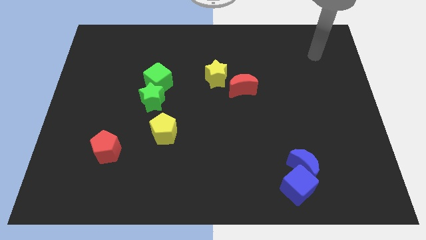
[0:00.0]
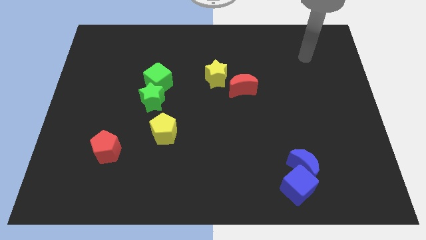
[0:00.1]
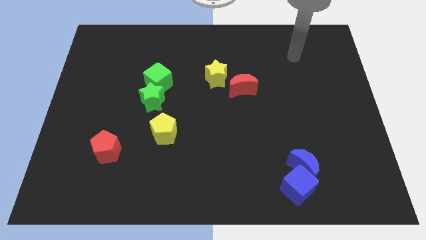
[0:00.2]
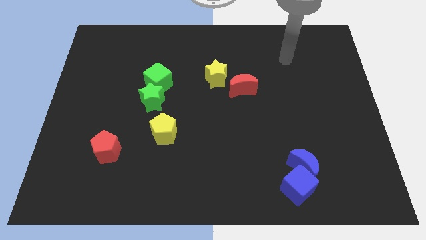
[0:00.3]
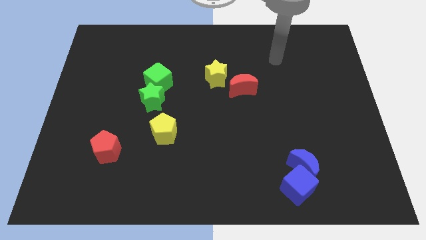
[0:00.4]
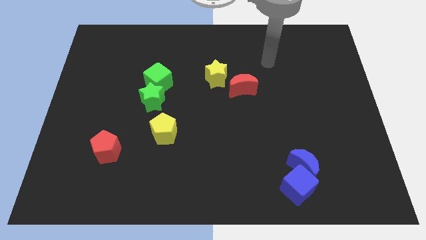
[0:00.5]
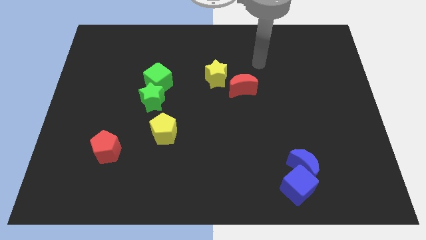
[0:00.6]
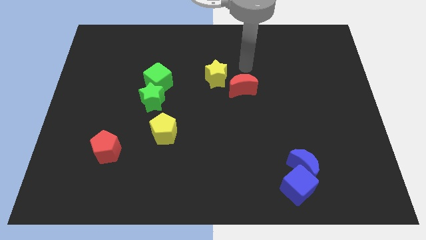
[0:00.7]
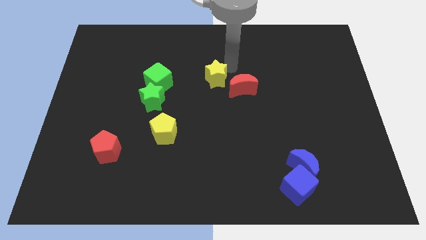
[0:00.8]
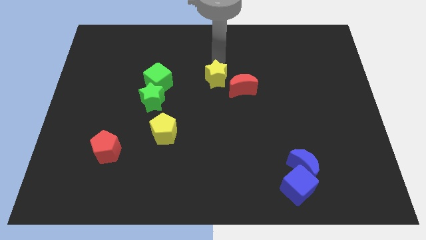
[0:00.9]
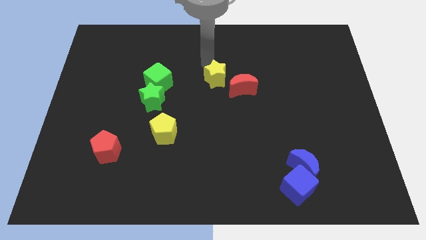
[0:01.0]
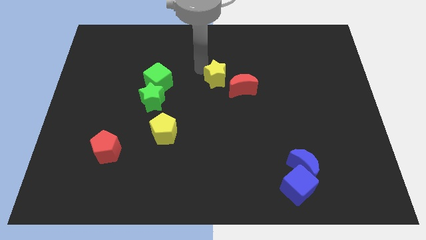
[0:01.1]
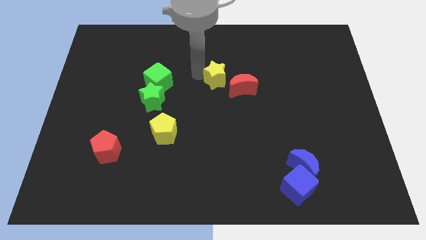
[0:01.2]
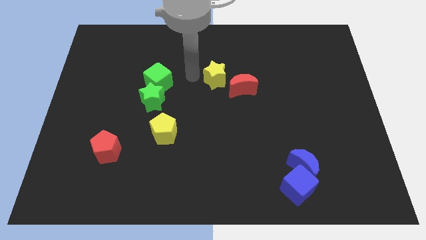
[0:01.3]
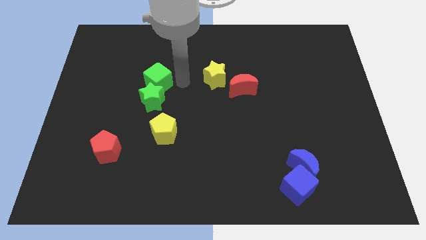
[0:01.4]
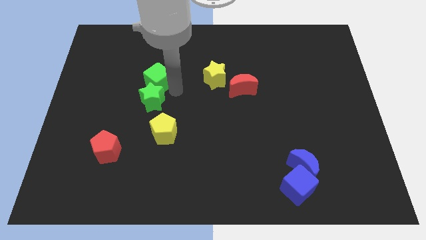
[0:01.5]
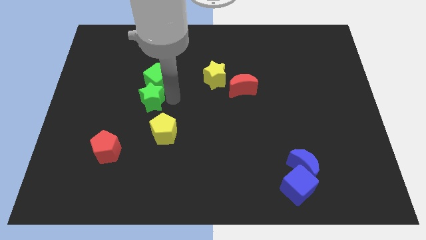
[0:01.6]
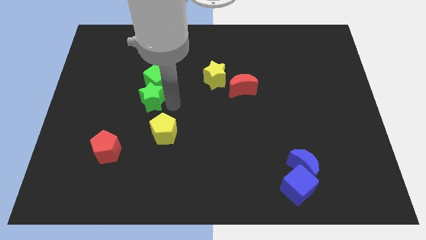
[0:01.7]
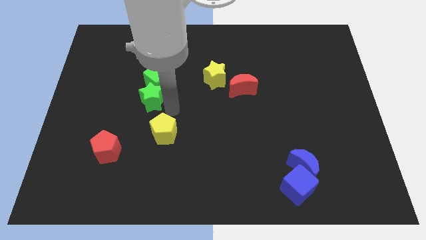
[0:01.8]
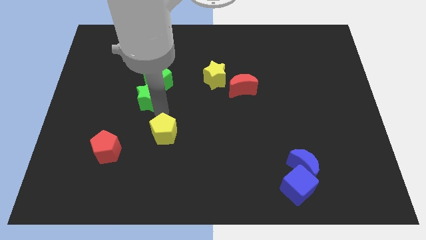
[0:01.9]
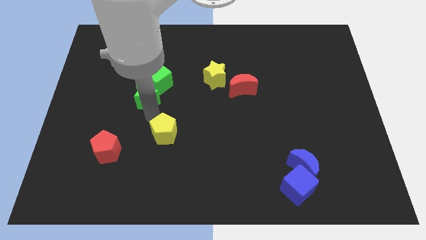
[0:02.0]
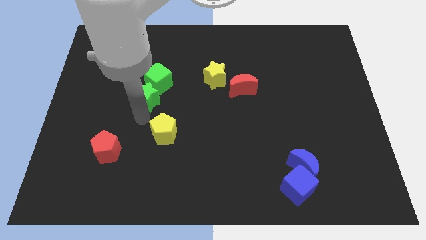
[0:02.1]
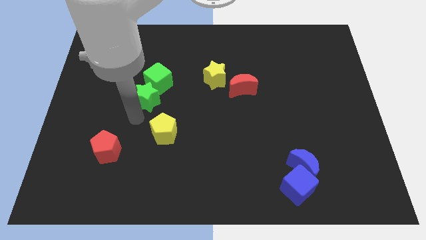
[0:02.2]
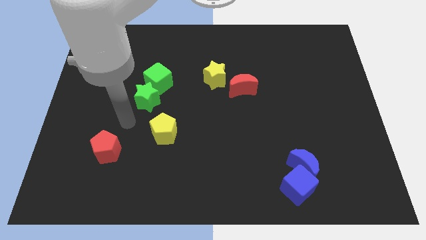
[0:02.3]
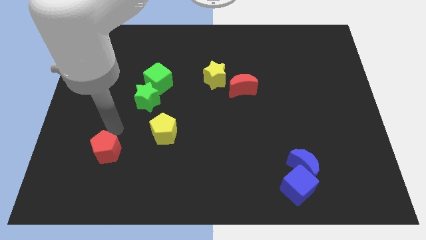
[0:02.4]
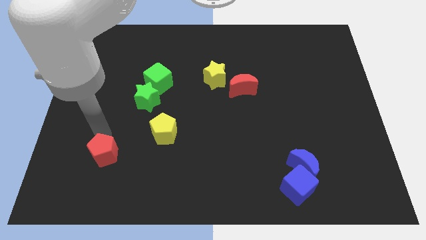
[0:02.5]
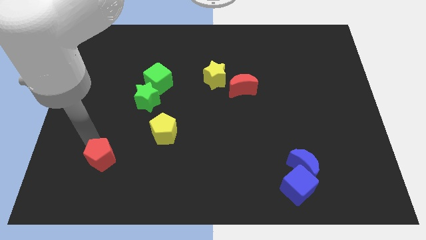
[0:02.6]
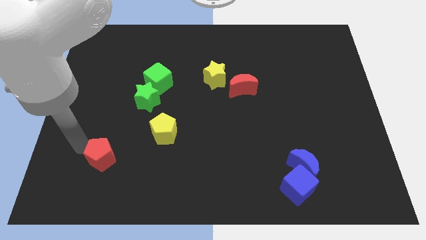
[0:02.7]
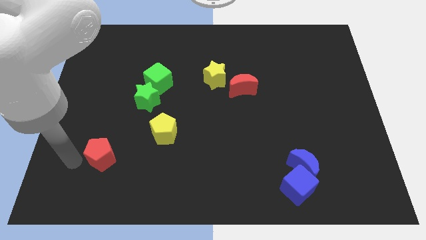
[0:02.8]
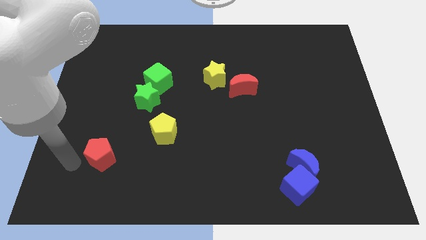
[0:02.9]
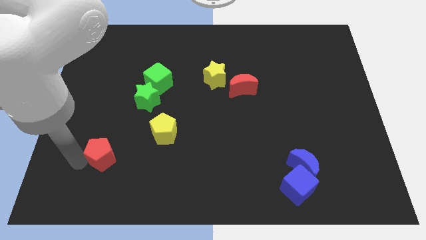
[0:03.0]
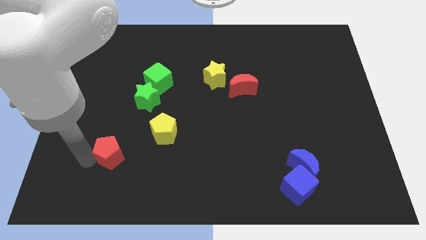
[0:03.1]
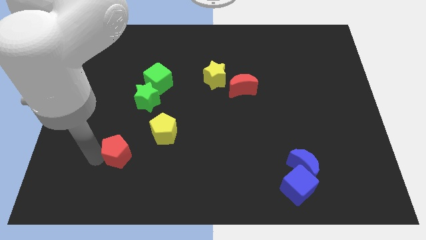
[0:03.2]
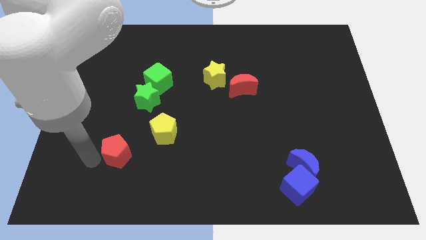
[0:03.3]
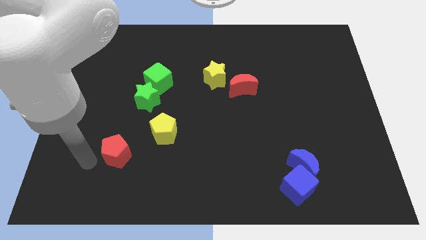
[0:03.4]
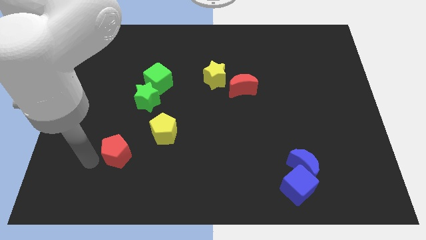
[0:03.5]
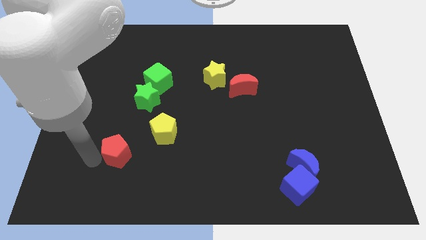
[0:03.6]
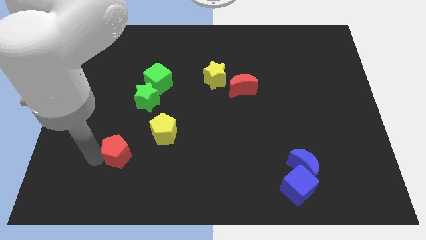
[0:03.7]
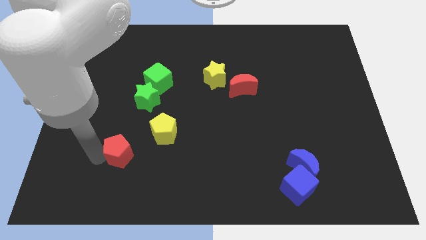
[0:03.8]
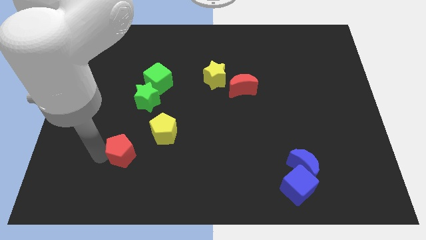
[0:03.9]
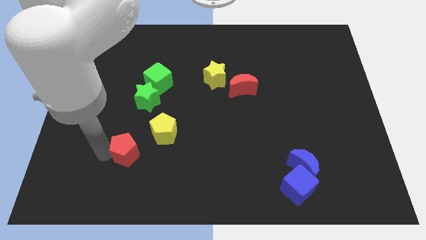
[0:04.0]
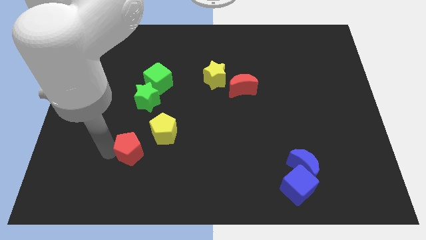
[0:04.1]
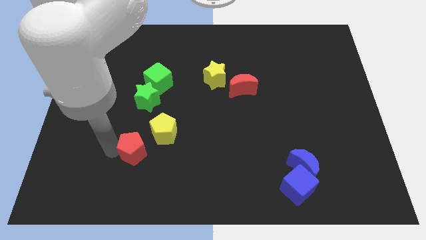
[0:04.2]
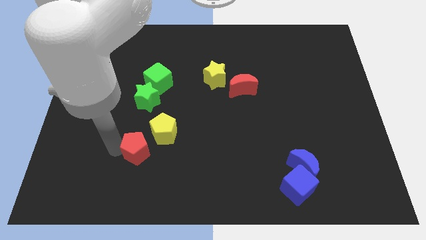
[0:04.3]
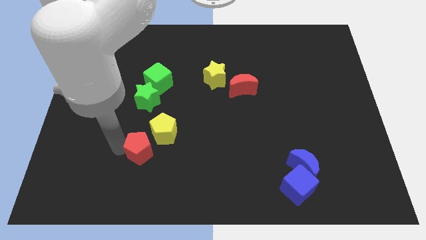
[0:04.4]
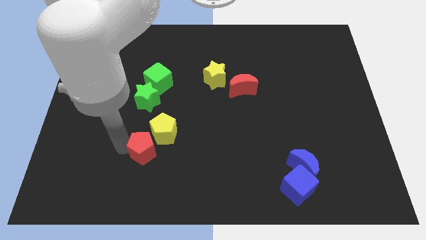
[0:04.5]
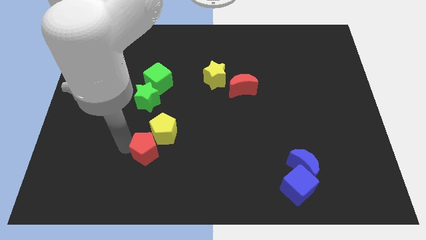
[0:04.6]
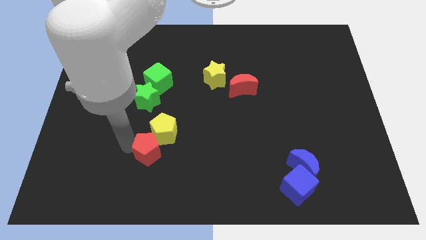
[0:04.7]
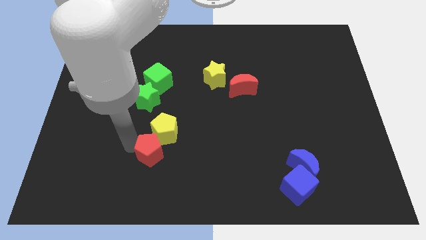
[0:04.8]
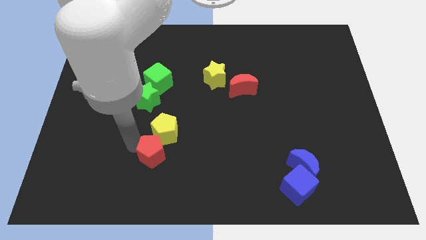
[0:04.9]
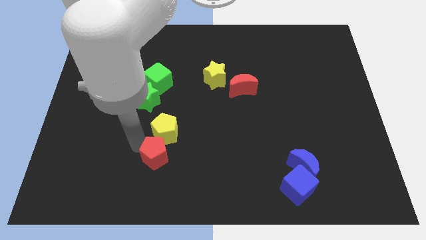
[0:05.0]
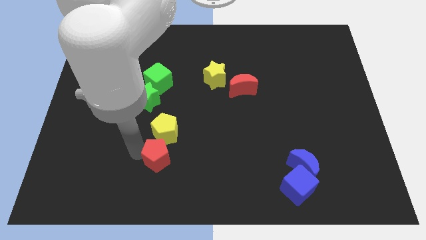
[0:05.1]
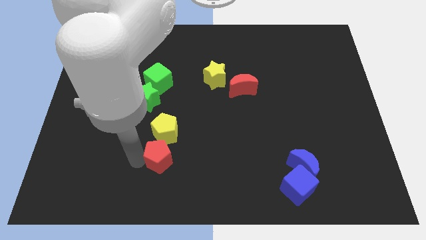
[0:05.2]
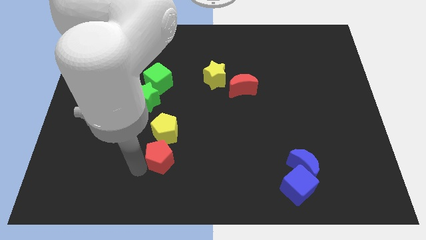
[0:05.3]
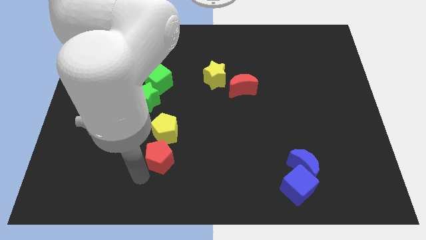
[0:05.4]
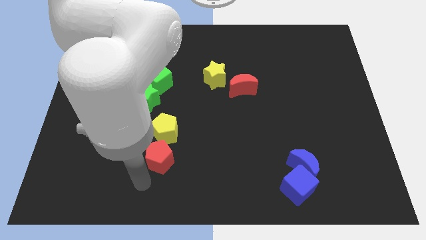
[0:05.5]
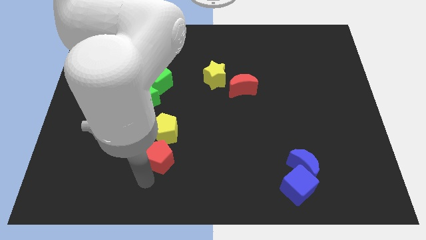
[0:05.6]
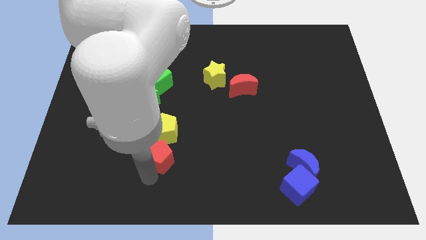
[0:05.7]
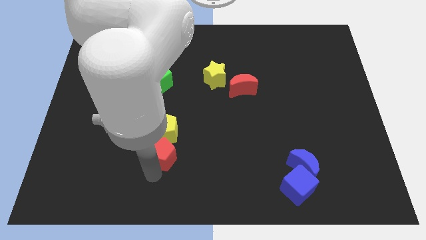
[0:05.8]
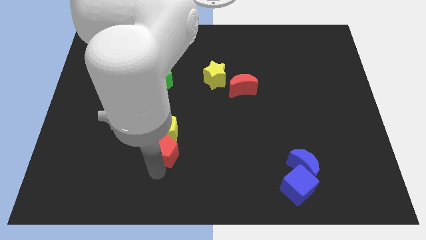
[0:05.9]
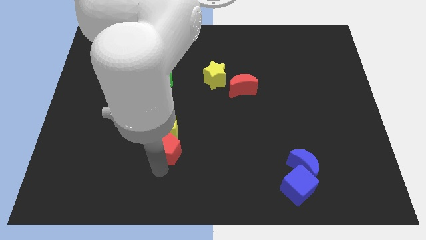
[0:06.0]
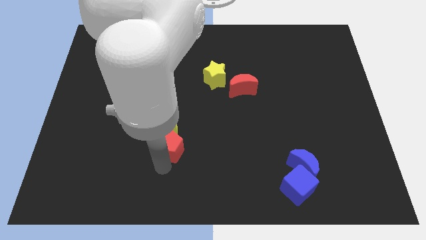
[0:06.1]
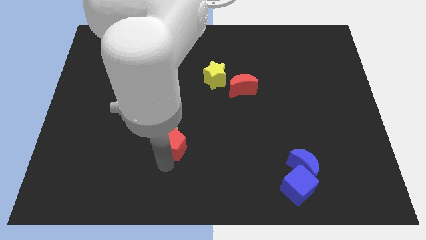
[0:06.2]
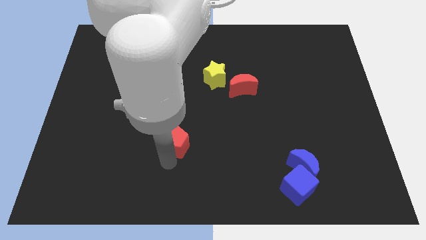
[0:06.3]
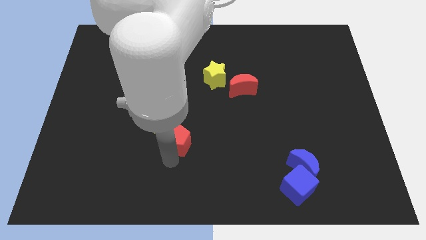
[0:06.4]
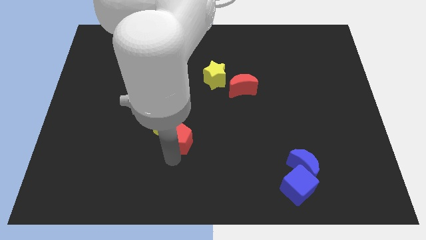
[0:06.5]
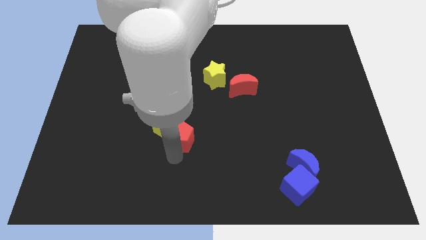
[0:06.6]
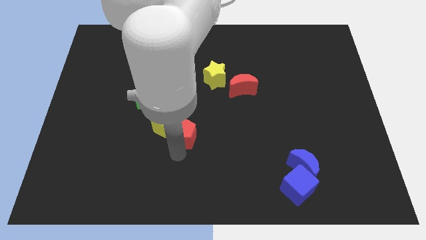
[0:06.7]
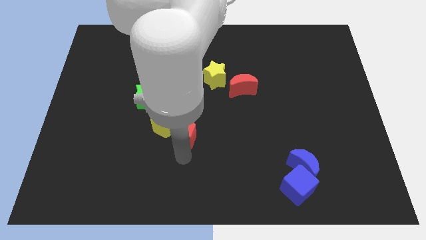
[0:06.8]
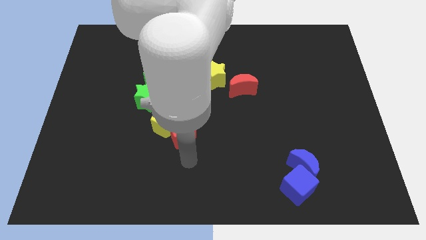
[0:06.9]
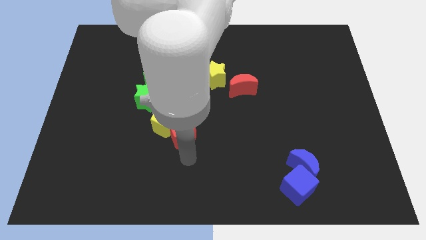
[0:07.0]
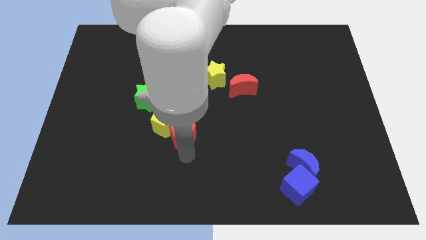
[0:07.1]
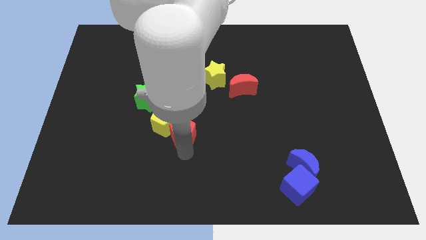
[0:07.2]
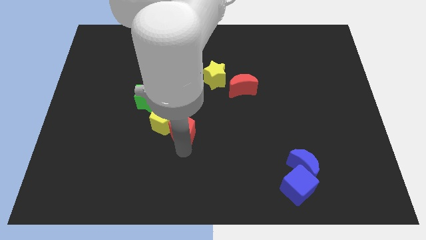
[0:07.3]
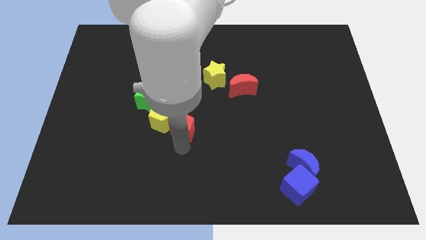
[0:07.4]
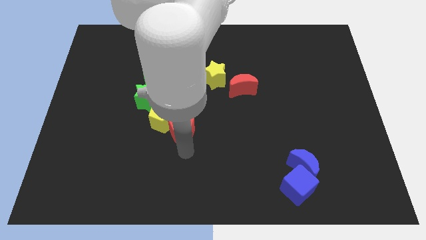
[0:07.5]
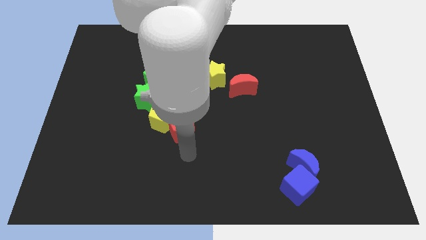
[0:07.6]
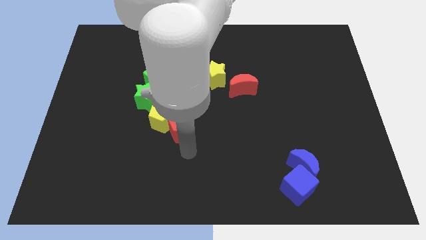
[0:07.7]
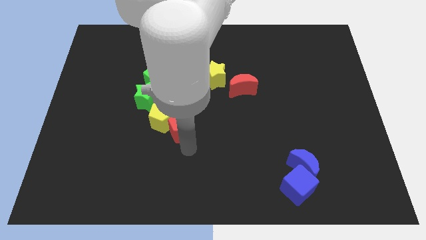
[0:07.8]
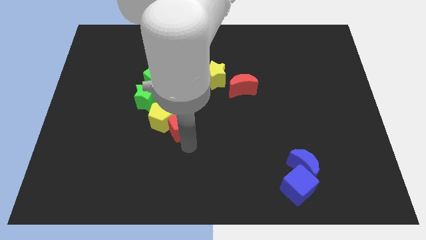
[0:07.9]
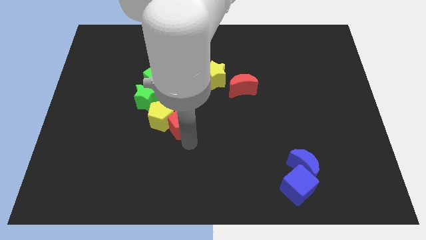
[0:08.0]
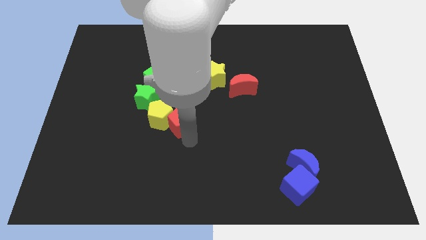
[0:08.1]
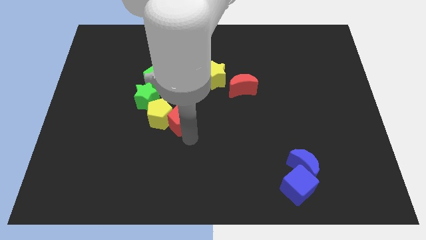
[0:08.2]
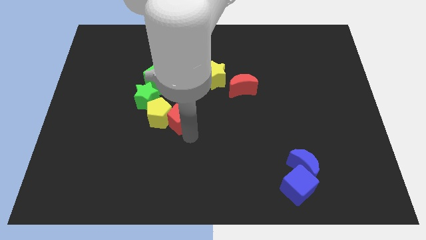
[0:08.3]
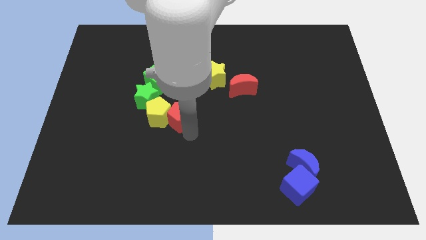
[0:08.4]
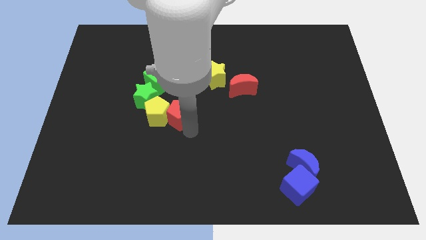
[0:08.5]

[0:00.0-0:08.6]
move the red pentagon diagonally down and to the right of the green cube
